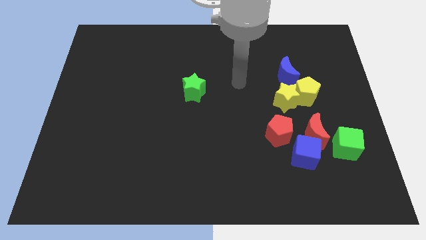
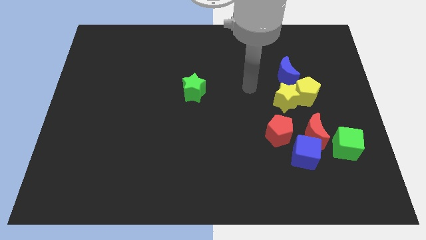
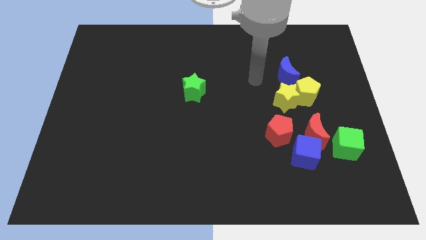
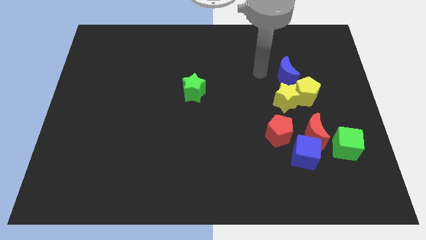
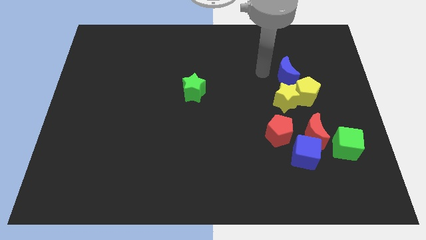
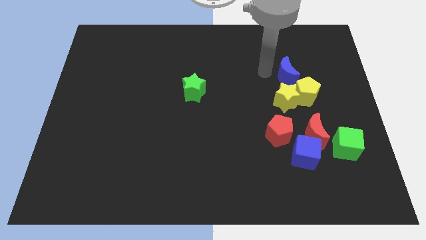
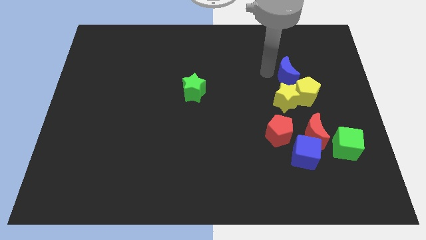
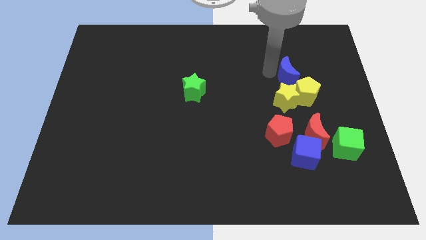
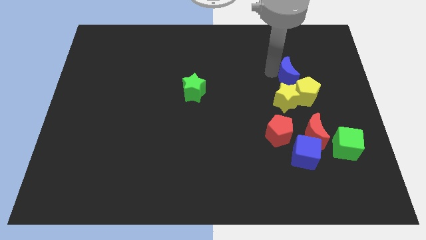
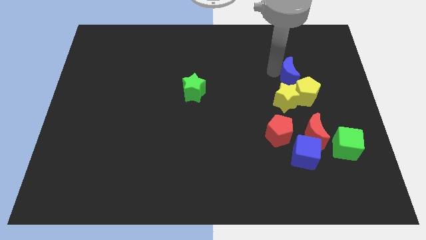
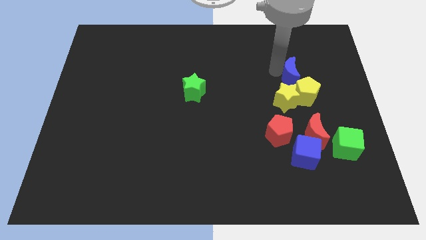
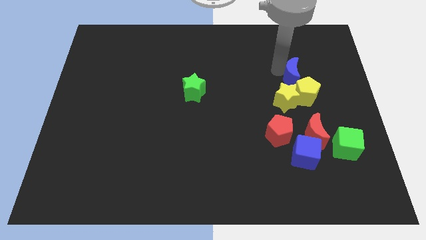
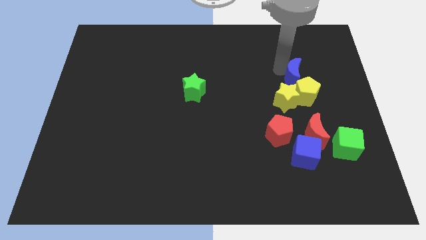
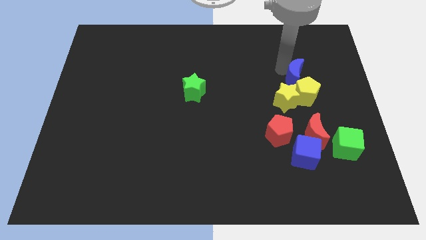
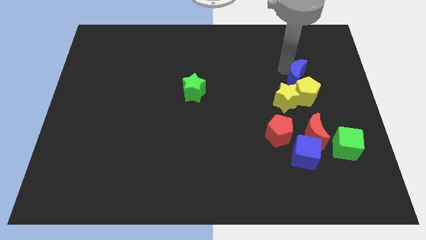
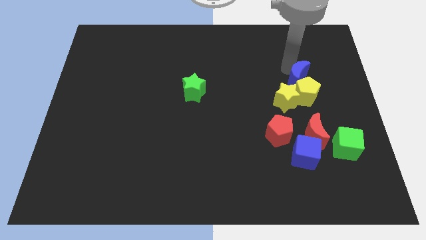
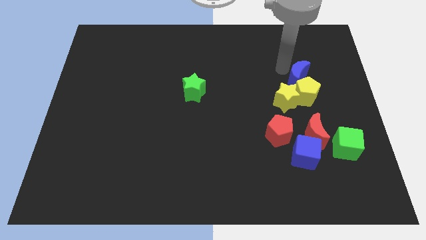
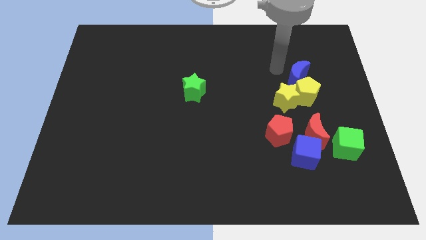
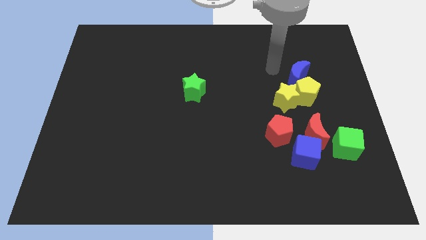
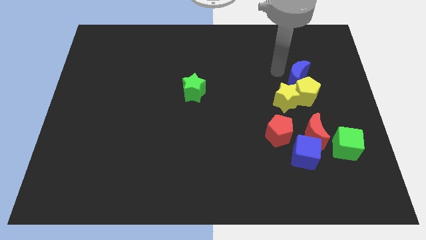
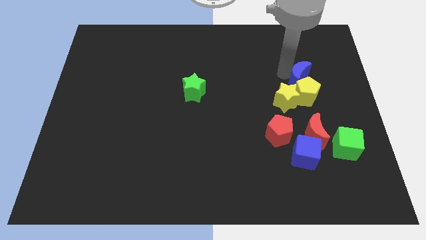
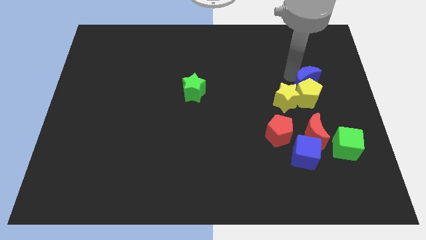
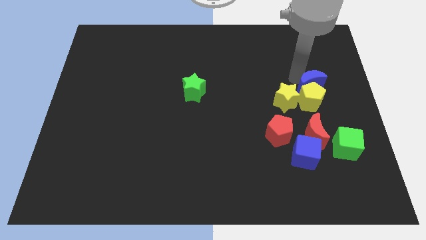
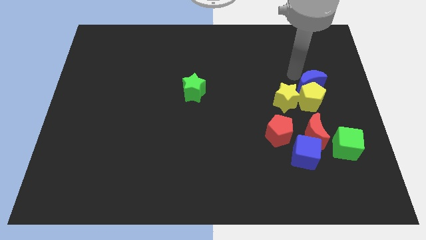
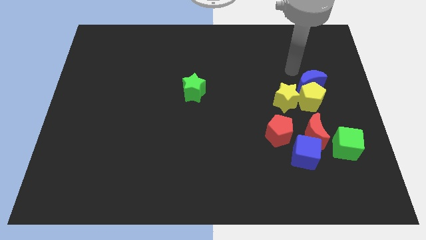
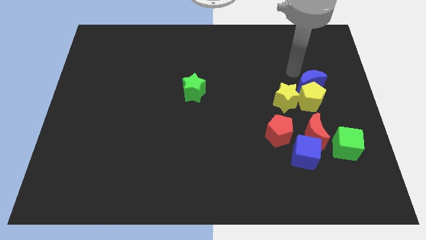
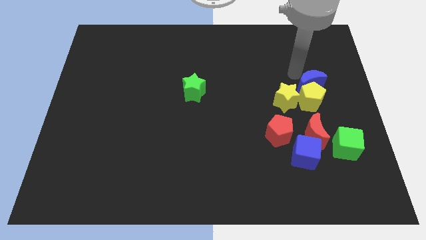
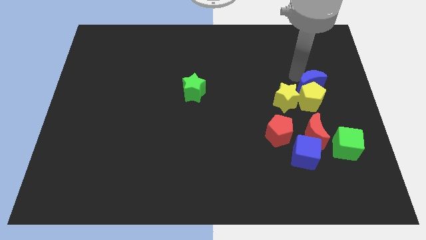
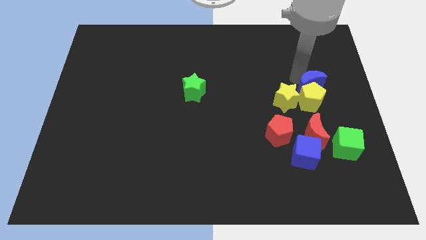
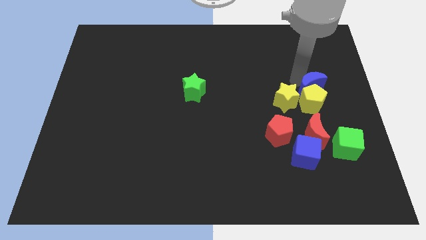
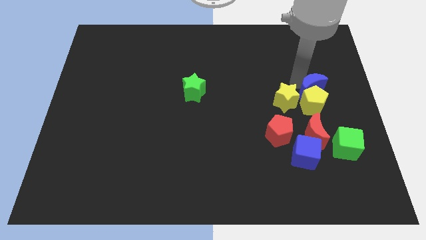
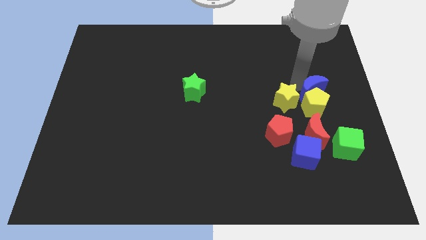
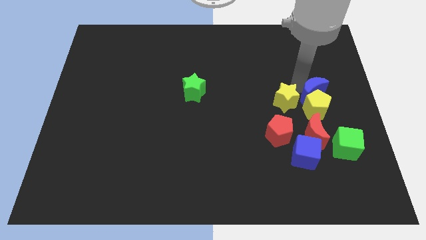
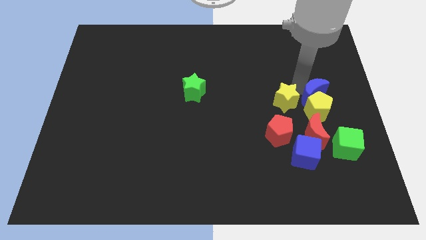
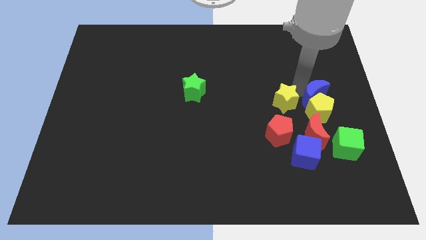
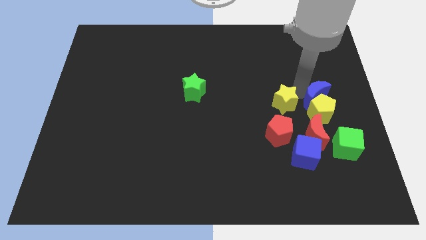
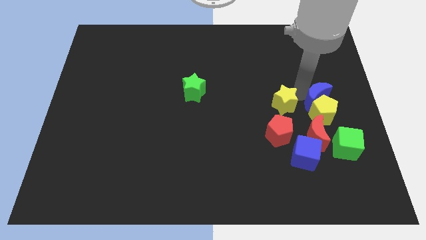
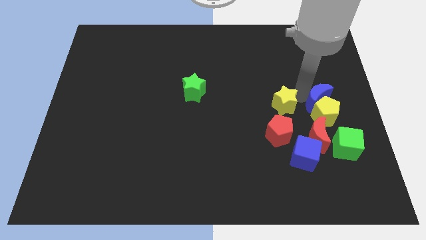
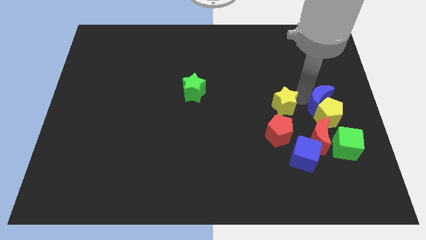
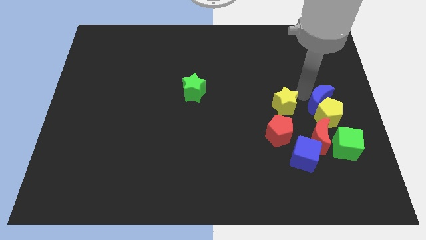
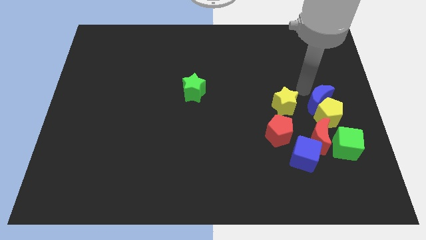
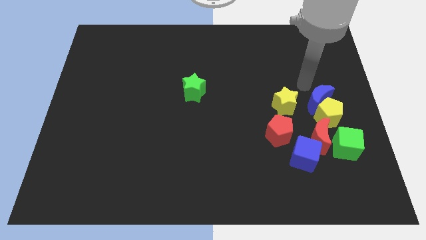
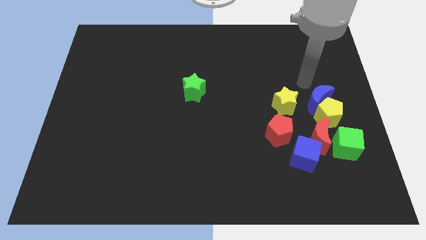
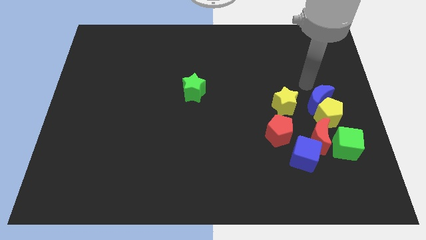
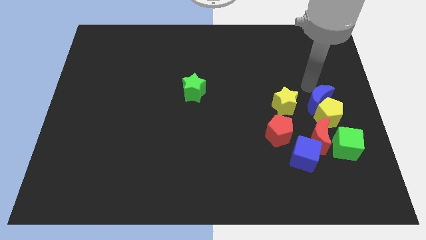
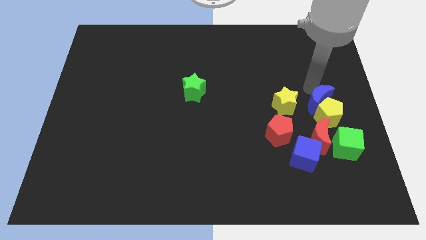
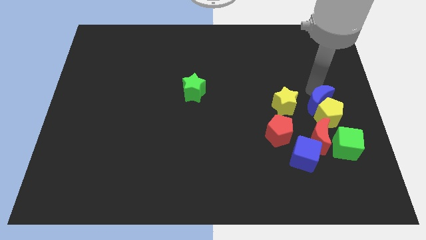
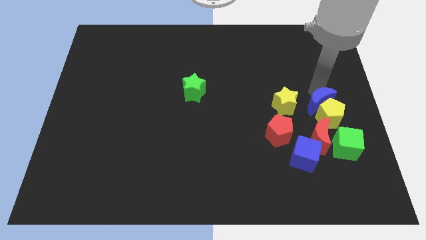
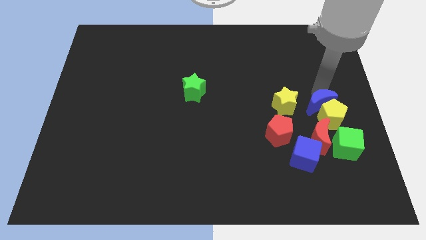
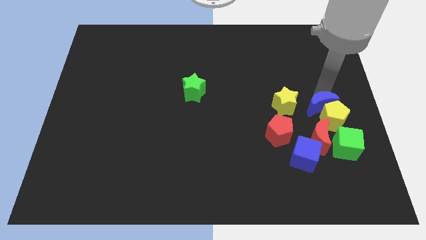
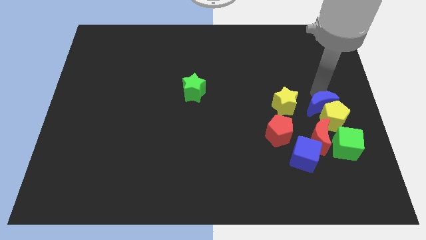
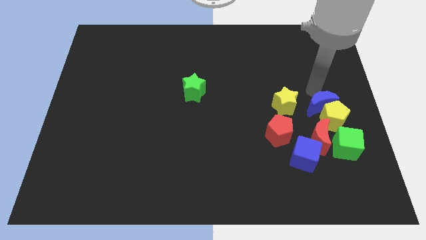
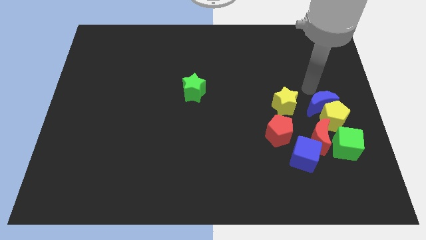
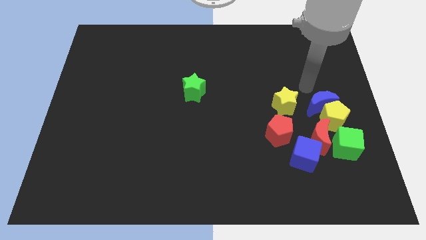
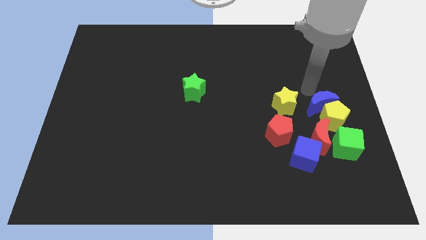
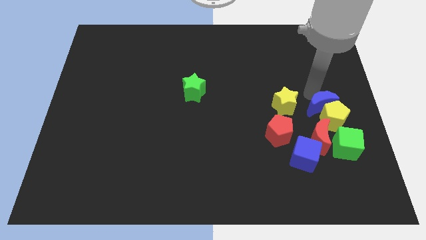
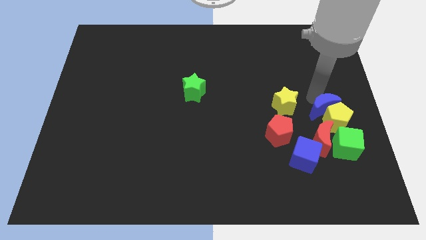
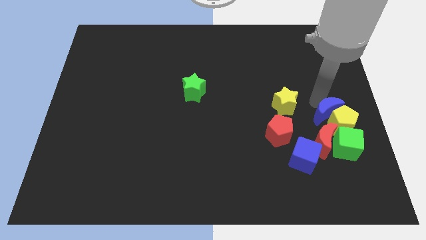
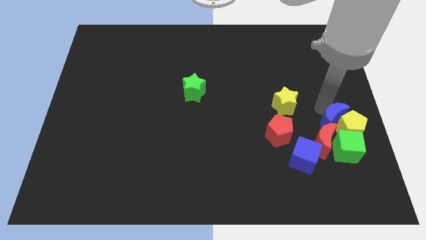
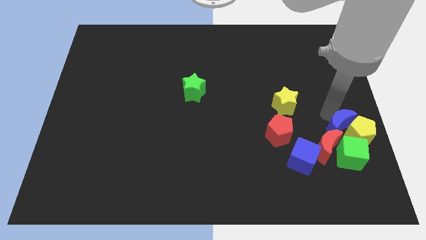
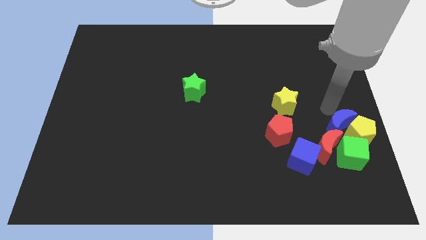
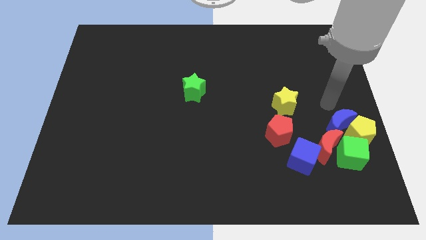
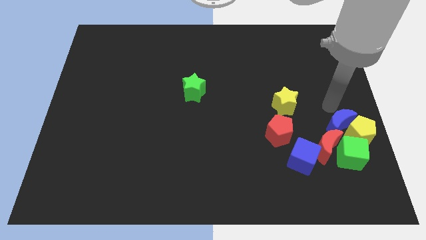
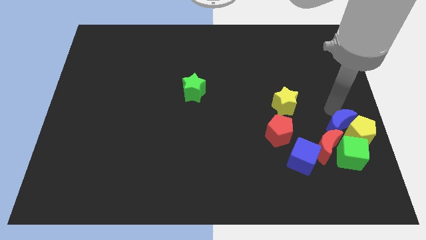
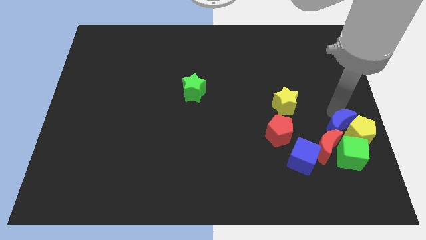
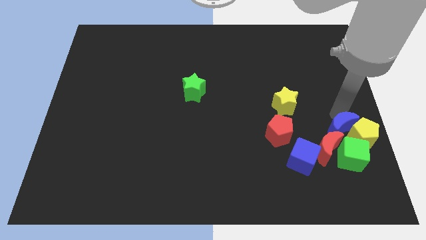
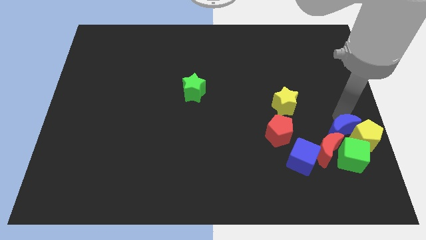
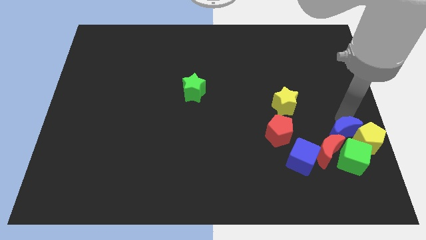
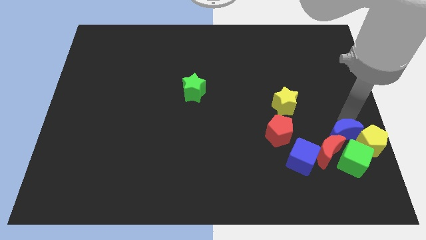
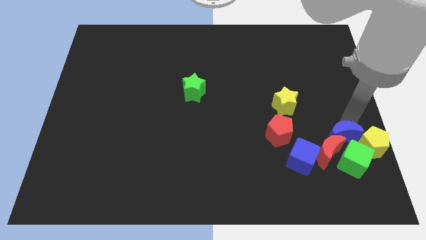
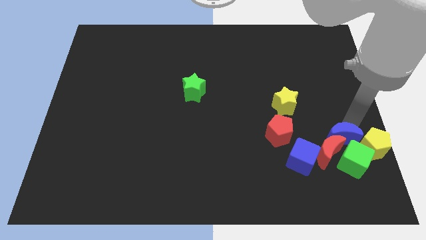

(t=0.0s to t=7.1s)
move the blue moon close to the green cube
